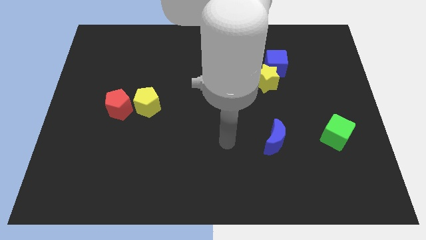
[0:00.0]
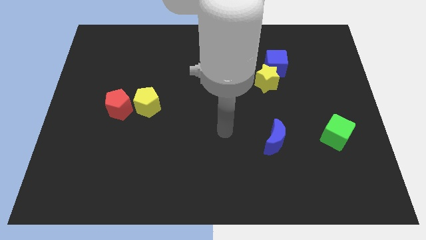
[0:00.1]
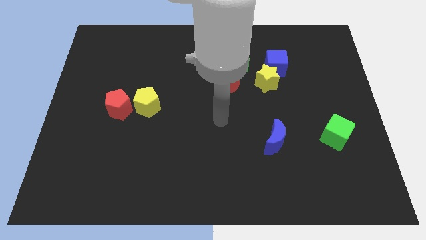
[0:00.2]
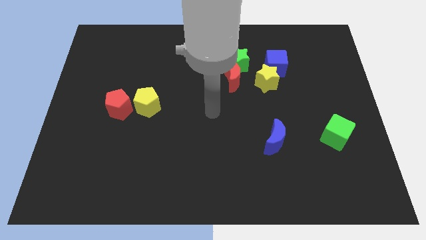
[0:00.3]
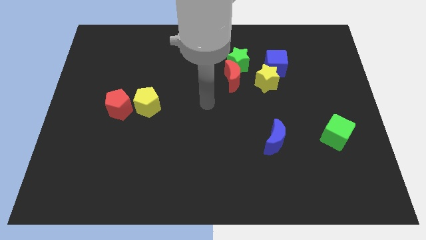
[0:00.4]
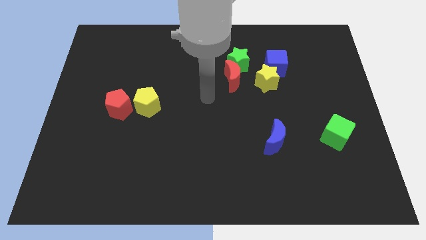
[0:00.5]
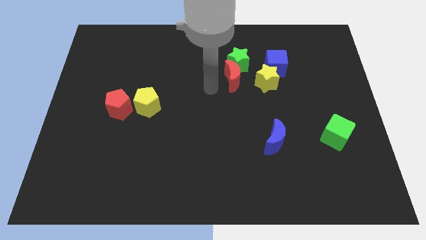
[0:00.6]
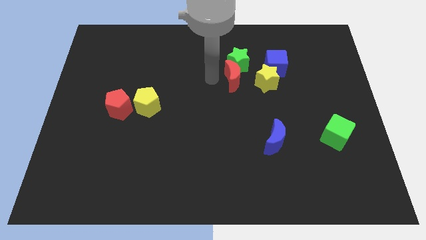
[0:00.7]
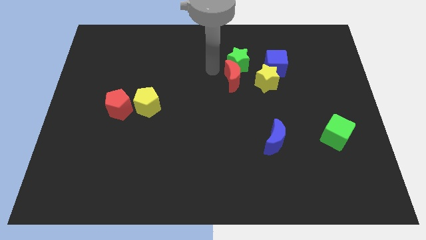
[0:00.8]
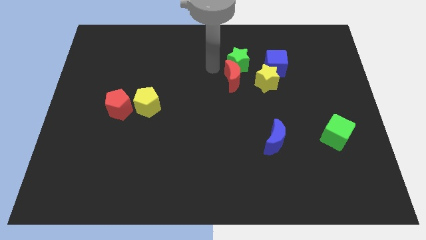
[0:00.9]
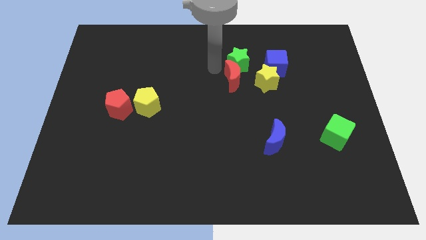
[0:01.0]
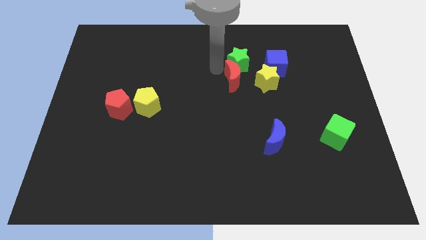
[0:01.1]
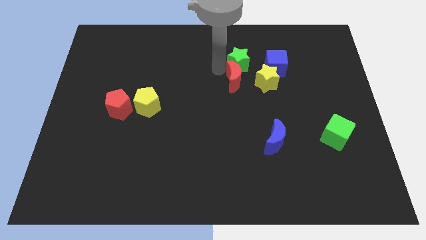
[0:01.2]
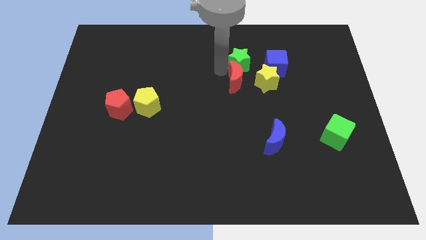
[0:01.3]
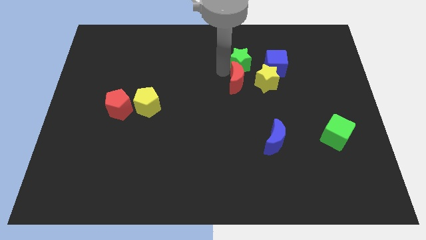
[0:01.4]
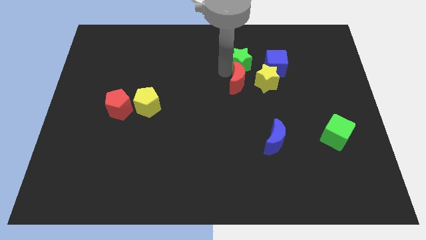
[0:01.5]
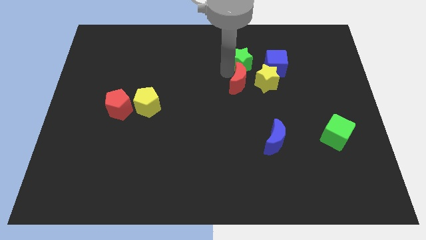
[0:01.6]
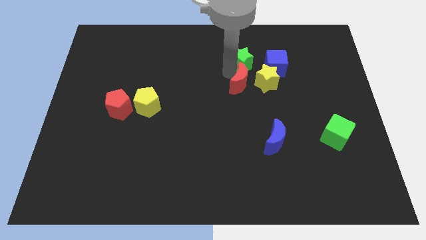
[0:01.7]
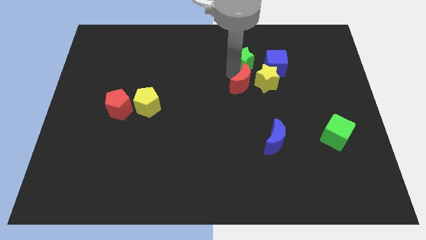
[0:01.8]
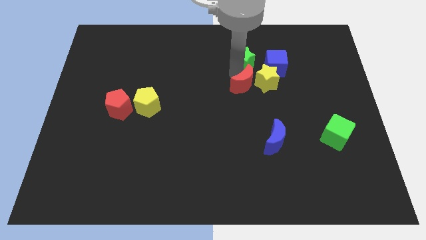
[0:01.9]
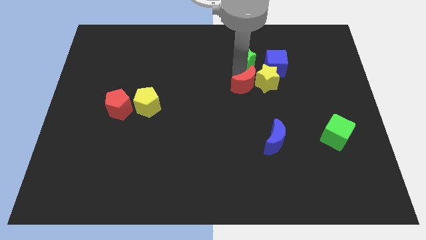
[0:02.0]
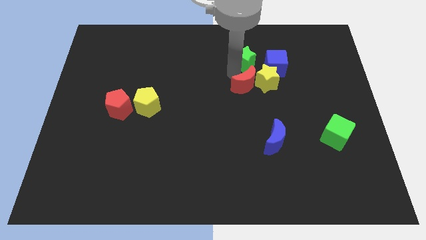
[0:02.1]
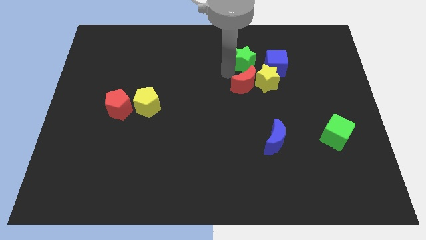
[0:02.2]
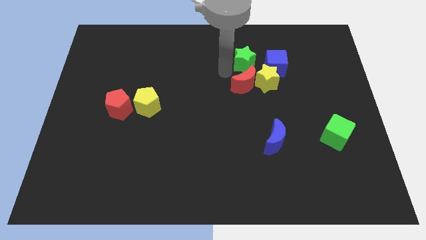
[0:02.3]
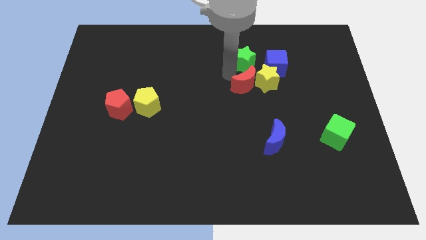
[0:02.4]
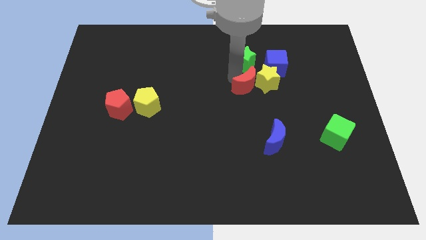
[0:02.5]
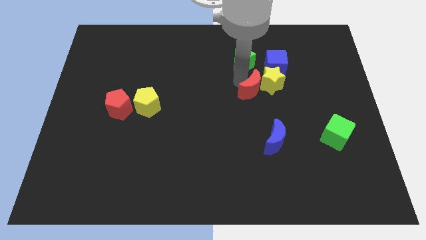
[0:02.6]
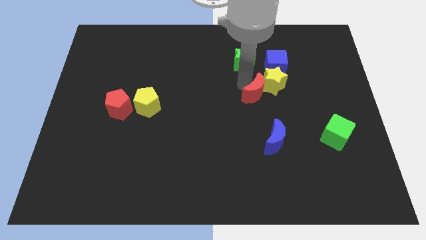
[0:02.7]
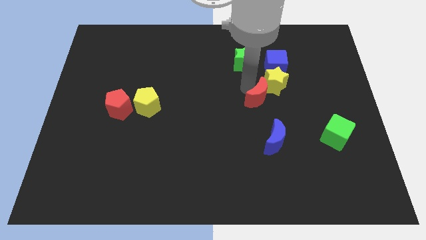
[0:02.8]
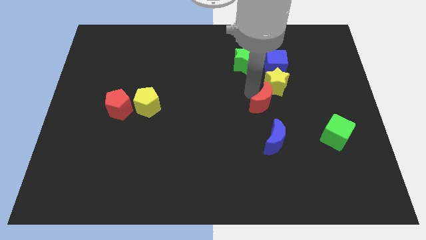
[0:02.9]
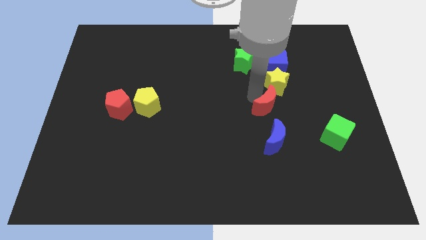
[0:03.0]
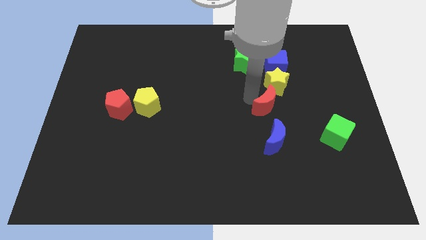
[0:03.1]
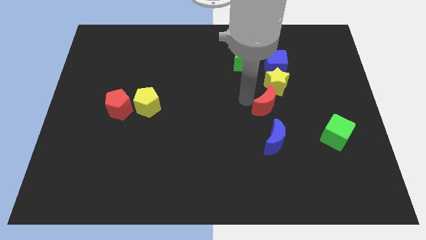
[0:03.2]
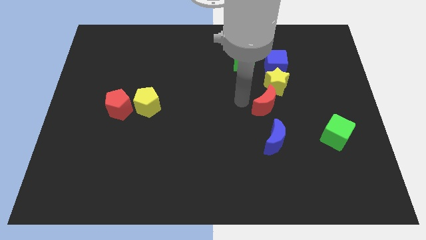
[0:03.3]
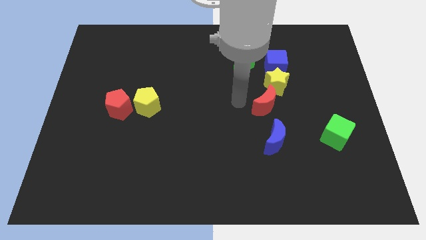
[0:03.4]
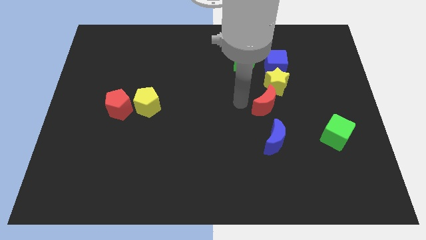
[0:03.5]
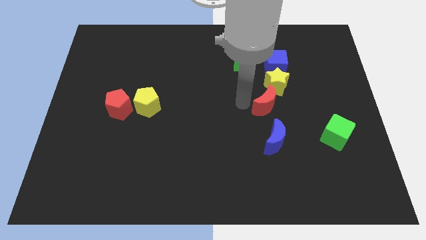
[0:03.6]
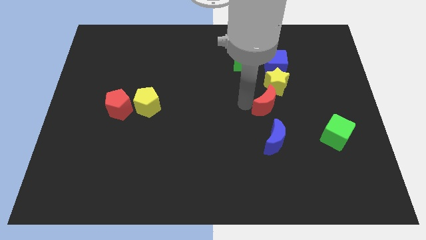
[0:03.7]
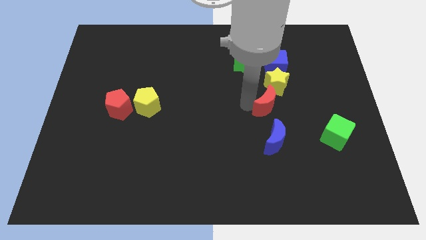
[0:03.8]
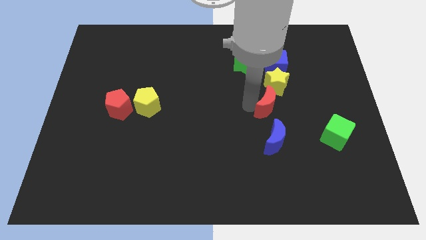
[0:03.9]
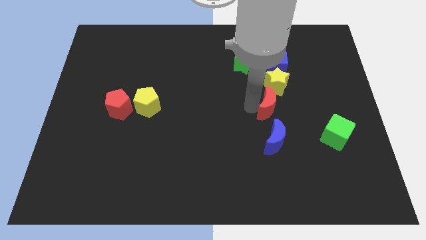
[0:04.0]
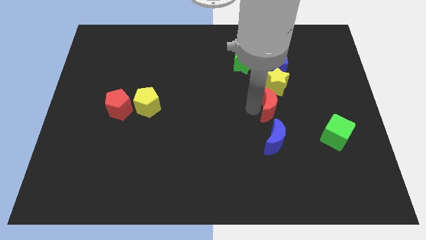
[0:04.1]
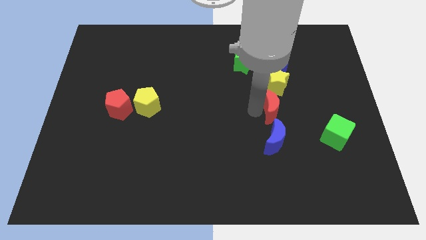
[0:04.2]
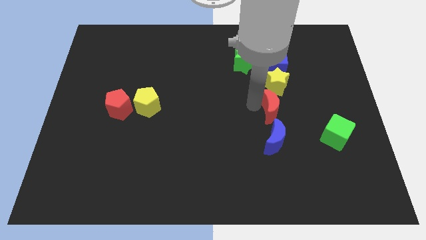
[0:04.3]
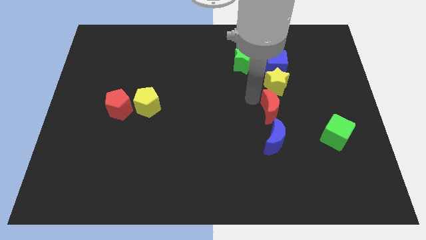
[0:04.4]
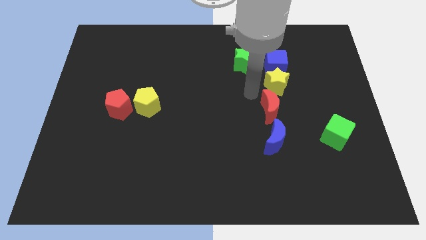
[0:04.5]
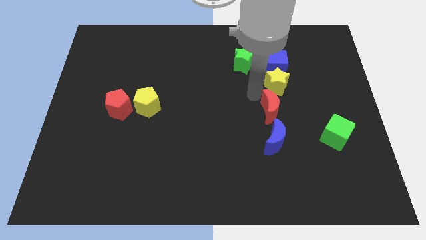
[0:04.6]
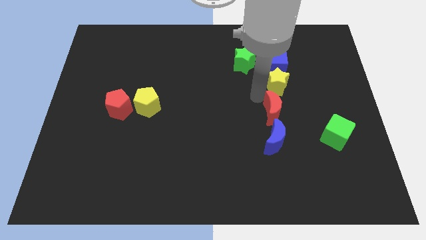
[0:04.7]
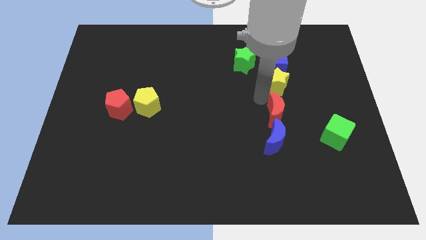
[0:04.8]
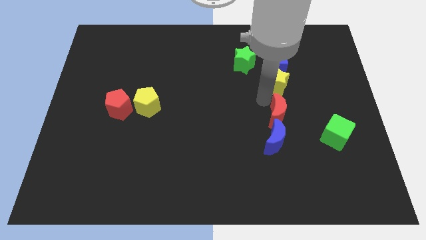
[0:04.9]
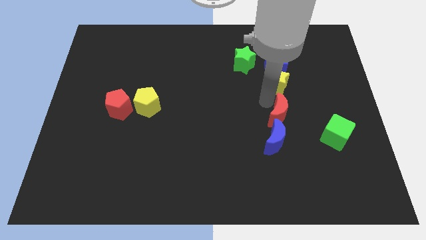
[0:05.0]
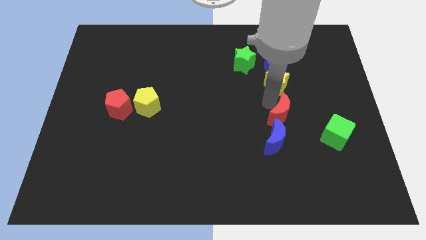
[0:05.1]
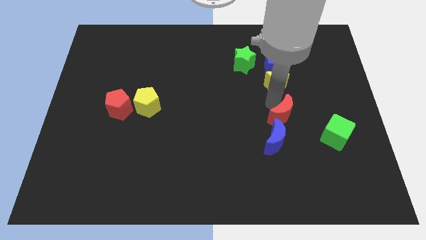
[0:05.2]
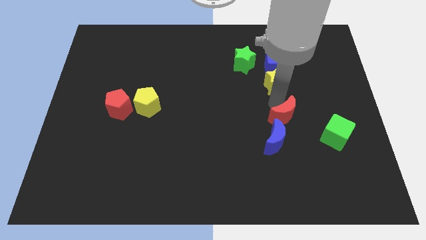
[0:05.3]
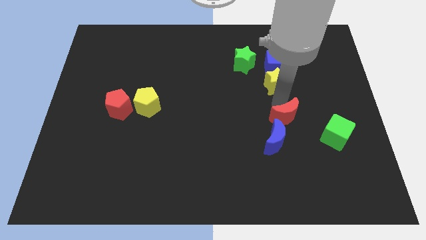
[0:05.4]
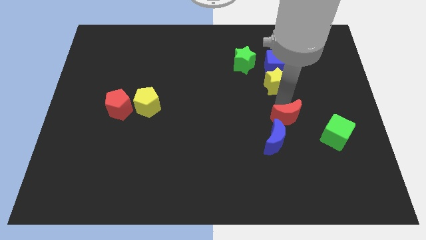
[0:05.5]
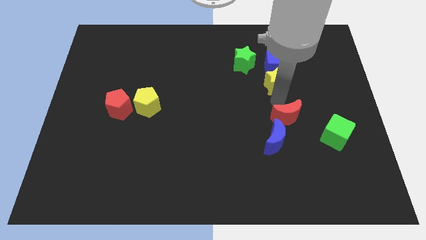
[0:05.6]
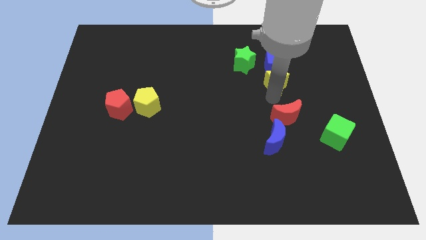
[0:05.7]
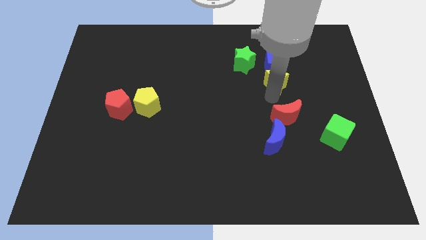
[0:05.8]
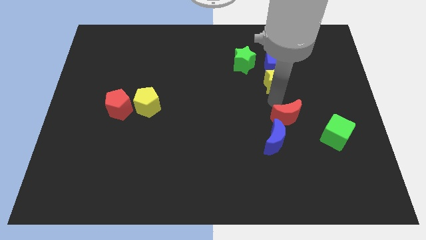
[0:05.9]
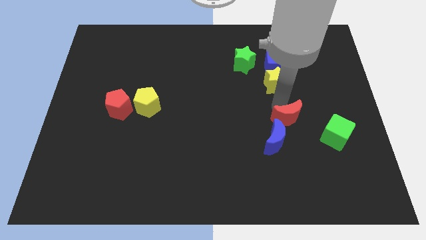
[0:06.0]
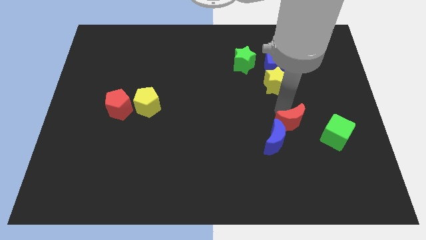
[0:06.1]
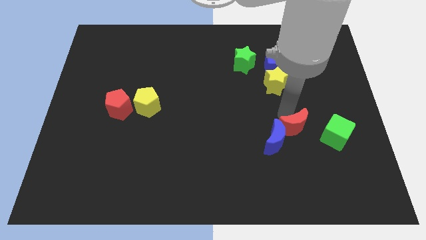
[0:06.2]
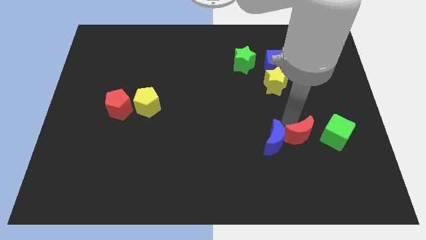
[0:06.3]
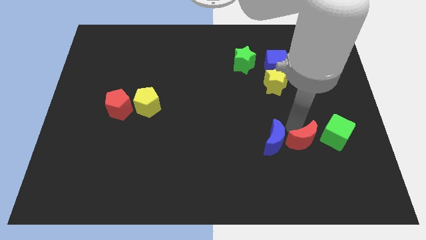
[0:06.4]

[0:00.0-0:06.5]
move the red moon to the bottom left of the green cube
